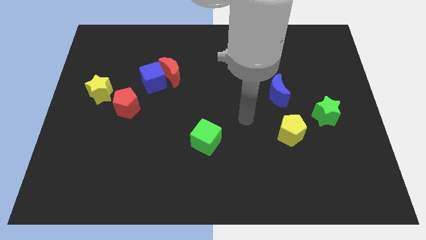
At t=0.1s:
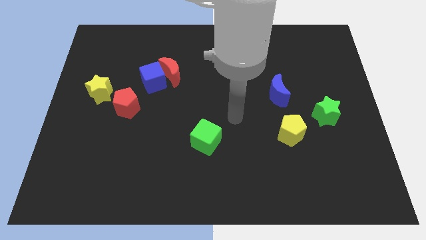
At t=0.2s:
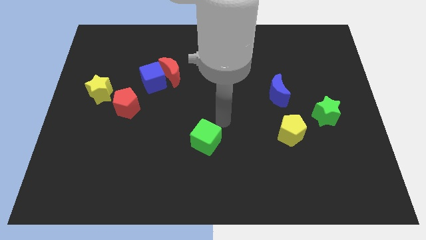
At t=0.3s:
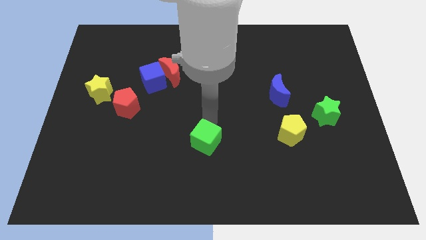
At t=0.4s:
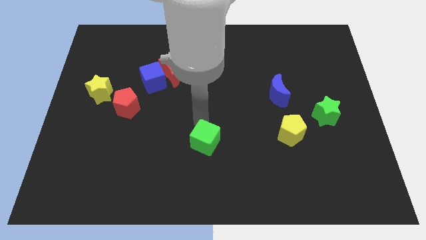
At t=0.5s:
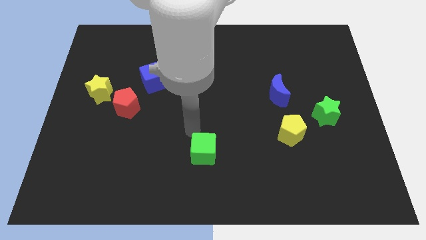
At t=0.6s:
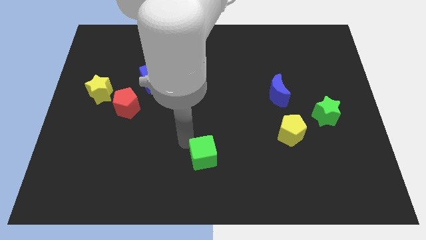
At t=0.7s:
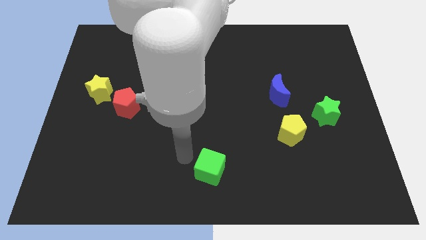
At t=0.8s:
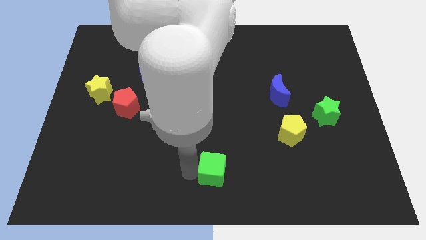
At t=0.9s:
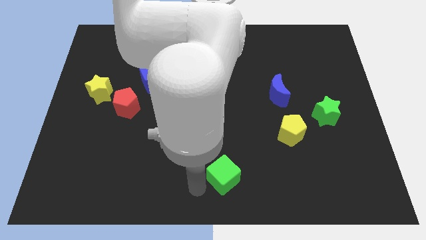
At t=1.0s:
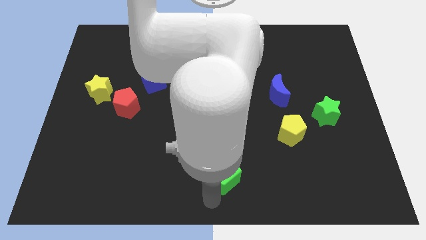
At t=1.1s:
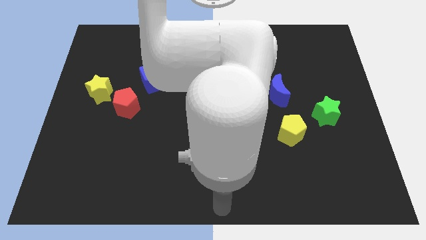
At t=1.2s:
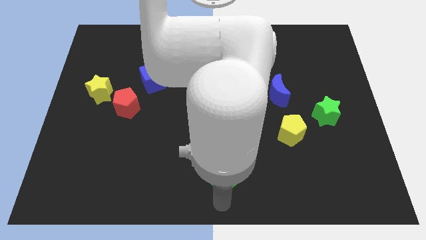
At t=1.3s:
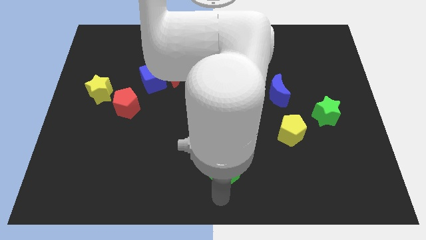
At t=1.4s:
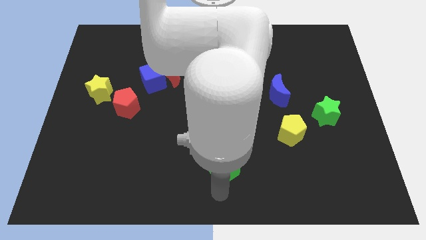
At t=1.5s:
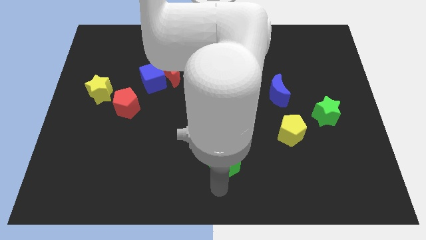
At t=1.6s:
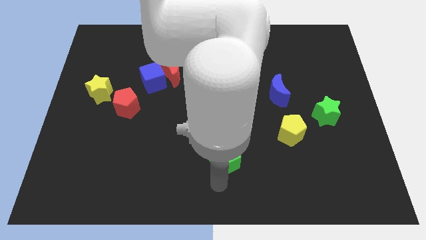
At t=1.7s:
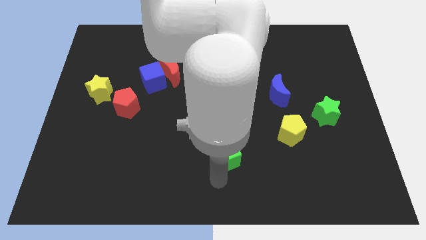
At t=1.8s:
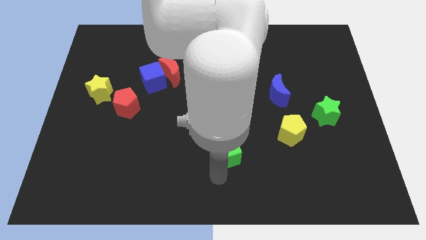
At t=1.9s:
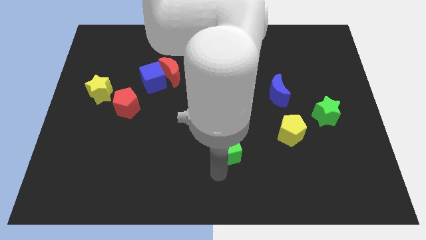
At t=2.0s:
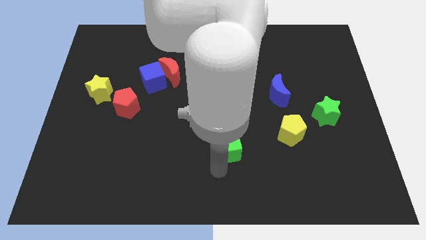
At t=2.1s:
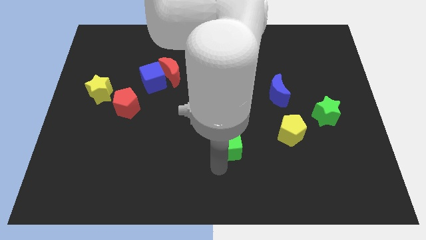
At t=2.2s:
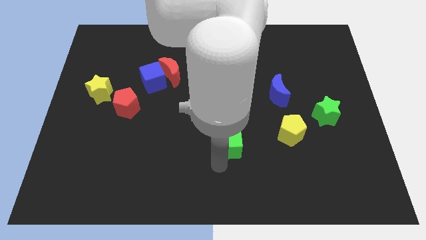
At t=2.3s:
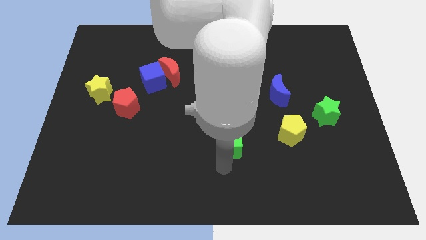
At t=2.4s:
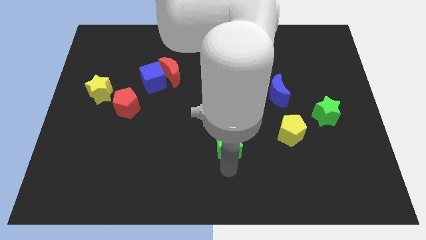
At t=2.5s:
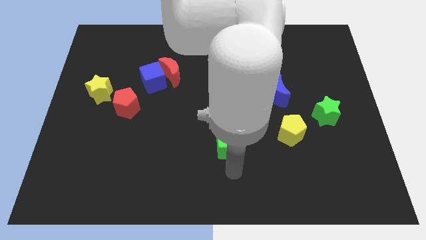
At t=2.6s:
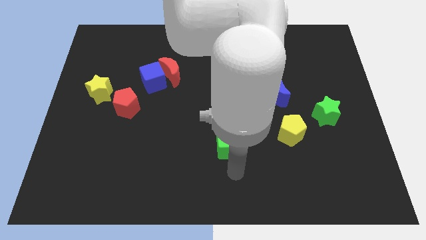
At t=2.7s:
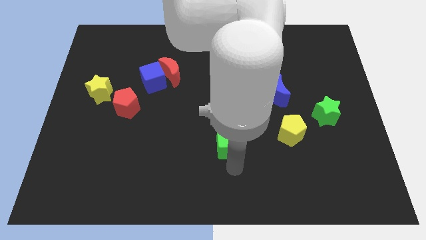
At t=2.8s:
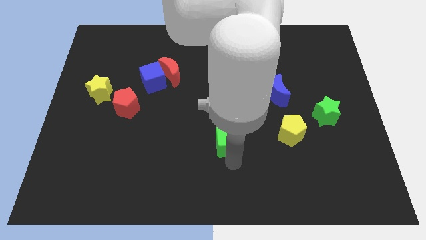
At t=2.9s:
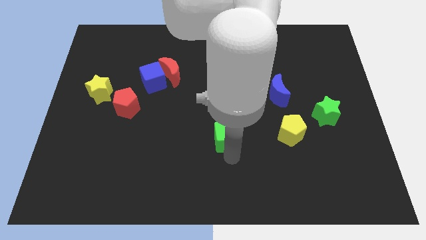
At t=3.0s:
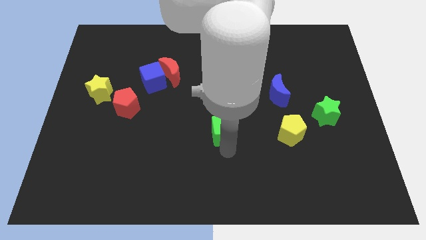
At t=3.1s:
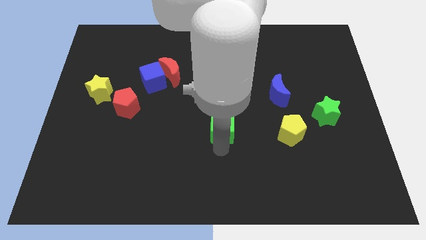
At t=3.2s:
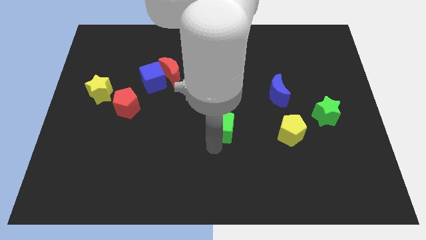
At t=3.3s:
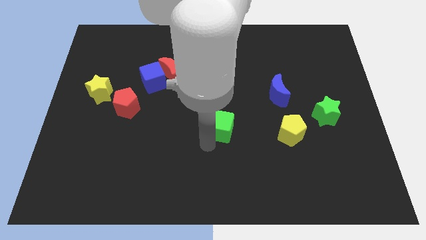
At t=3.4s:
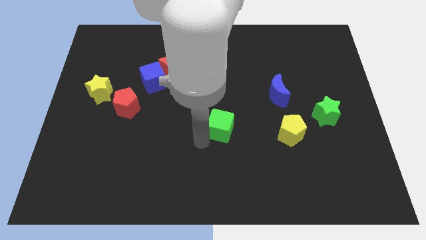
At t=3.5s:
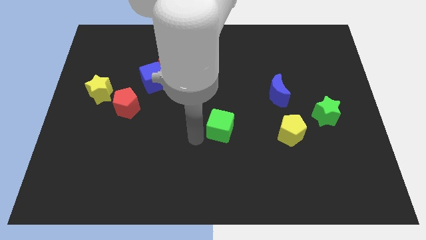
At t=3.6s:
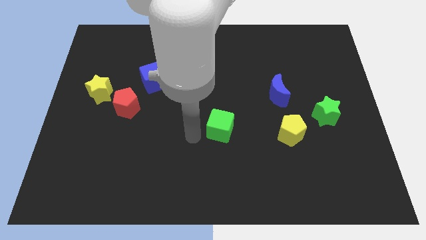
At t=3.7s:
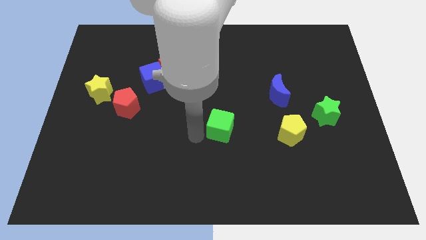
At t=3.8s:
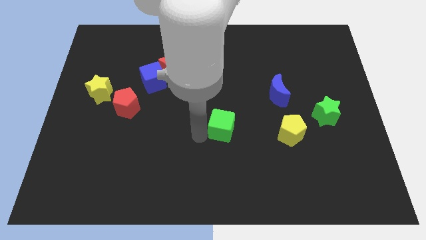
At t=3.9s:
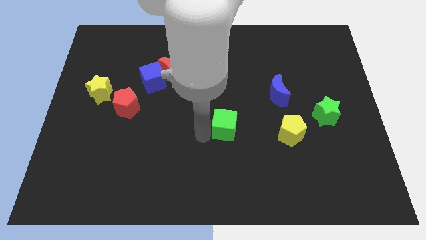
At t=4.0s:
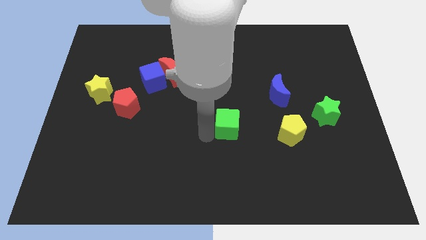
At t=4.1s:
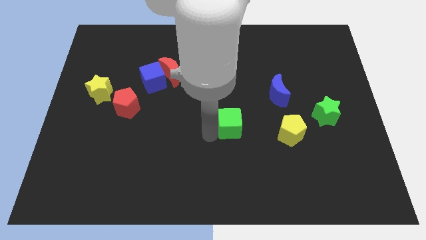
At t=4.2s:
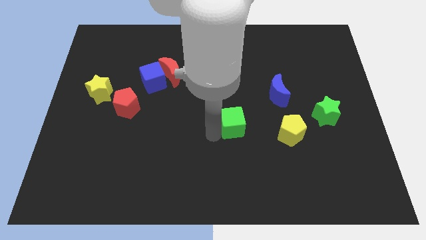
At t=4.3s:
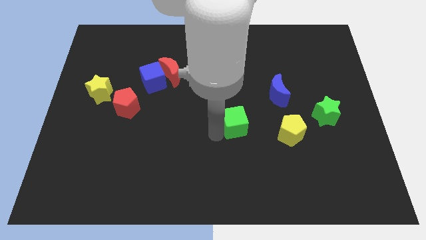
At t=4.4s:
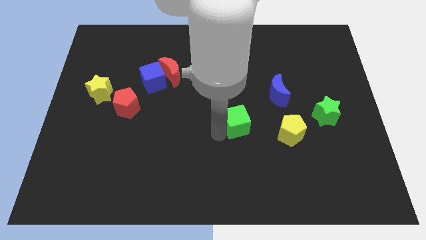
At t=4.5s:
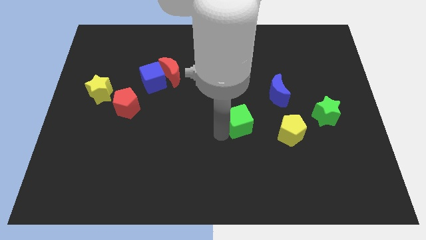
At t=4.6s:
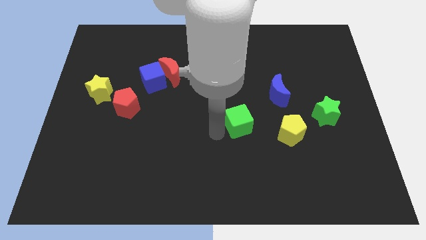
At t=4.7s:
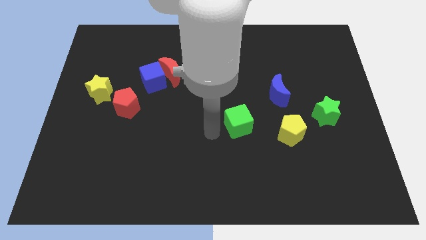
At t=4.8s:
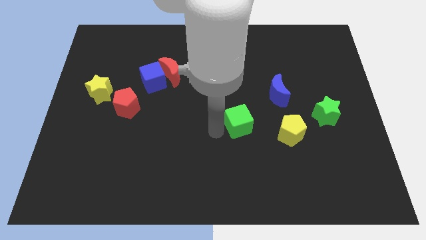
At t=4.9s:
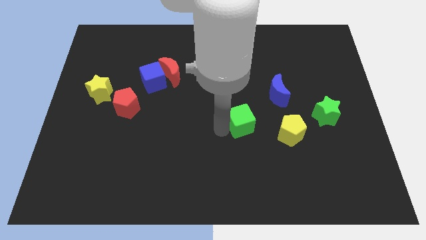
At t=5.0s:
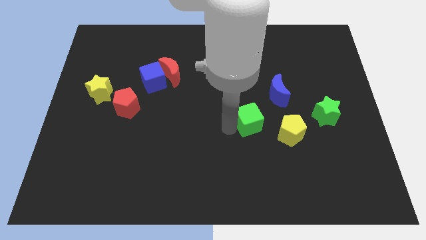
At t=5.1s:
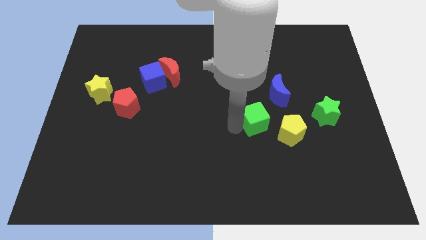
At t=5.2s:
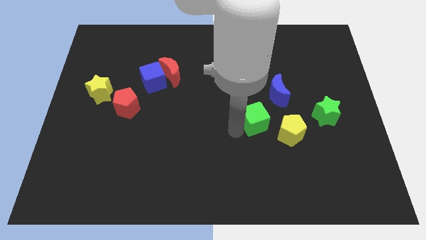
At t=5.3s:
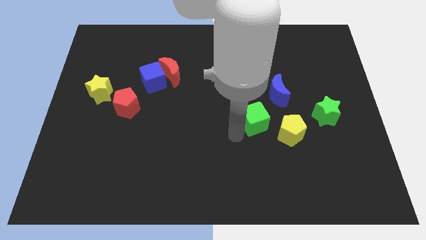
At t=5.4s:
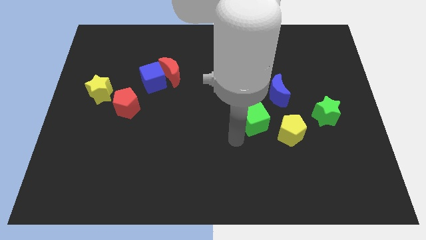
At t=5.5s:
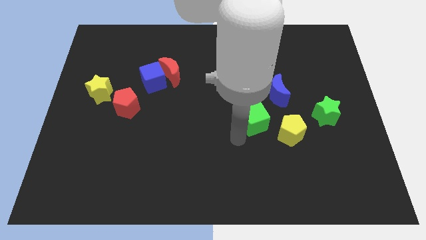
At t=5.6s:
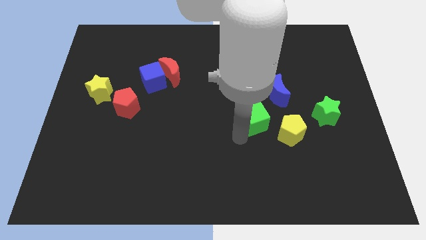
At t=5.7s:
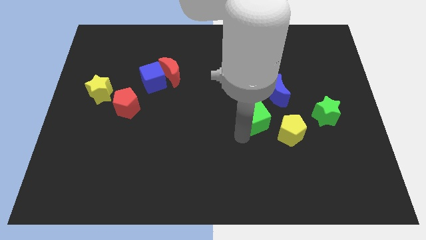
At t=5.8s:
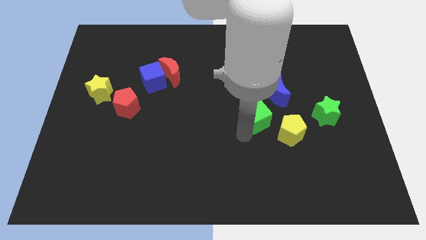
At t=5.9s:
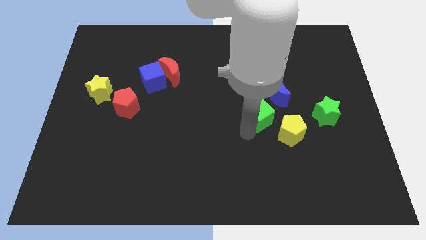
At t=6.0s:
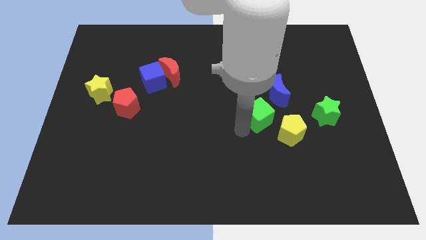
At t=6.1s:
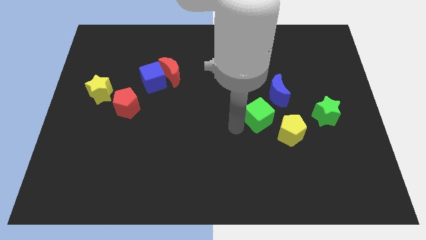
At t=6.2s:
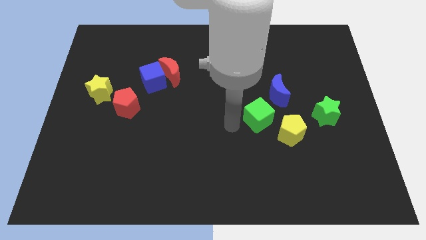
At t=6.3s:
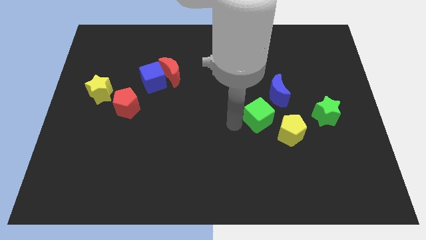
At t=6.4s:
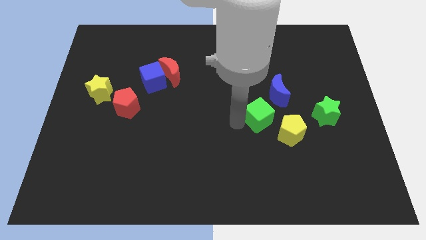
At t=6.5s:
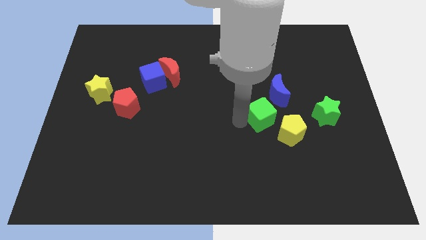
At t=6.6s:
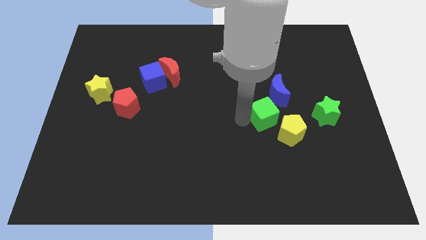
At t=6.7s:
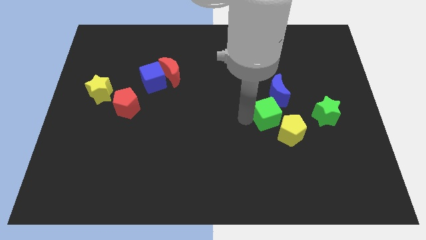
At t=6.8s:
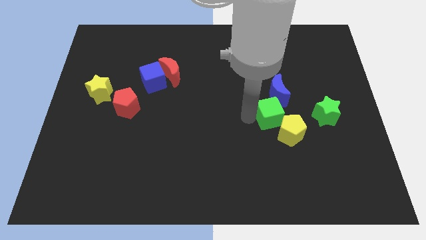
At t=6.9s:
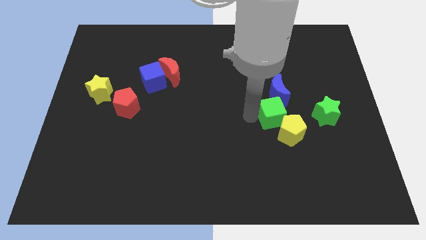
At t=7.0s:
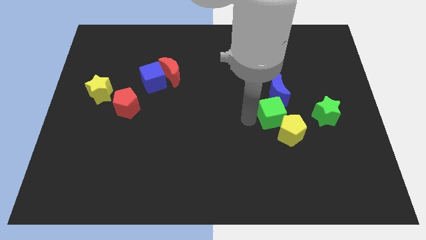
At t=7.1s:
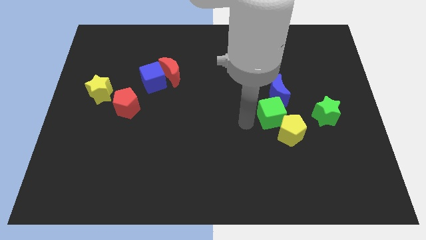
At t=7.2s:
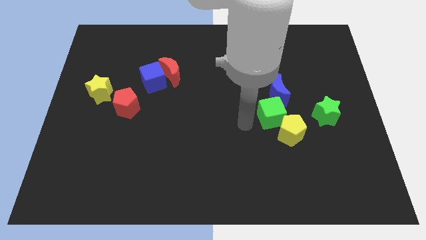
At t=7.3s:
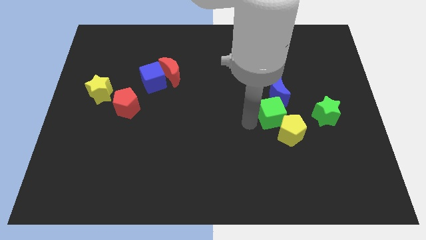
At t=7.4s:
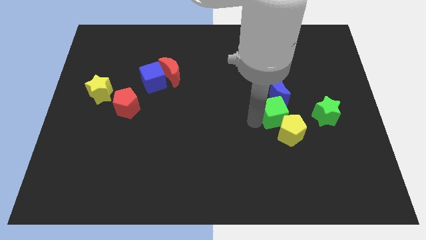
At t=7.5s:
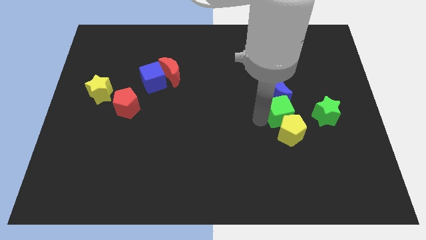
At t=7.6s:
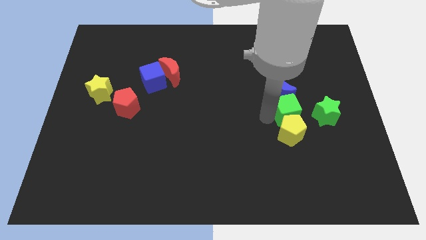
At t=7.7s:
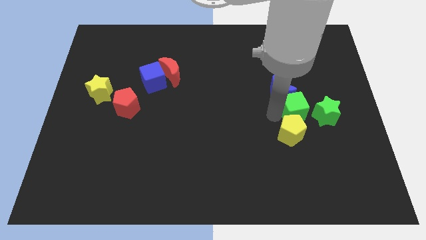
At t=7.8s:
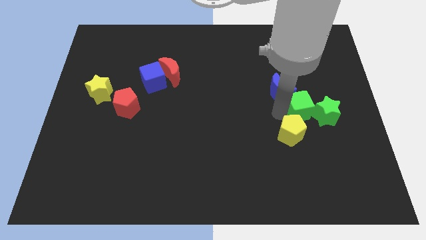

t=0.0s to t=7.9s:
push the green cube next to the green star
